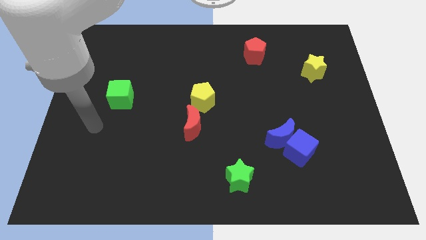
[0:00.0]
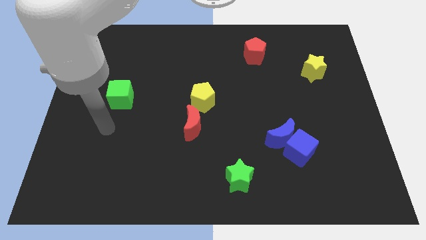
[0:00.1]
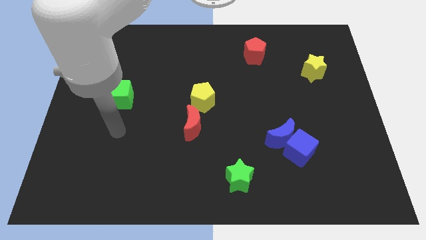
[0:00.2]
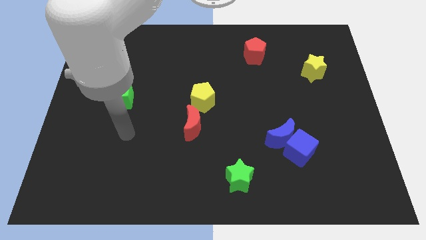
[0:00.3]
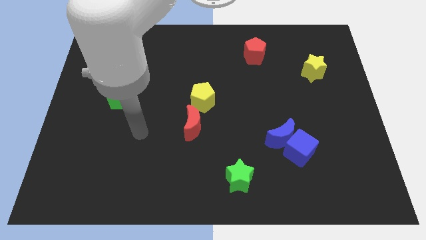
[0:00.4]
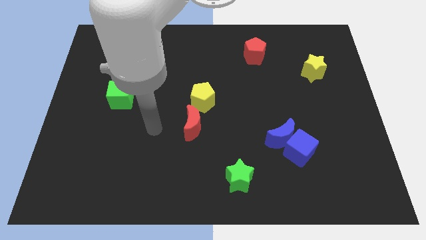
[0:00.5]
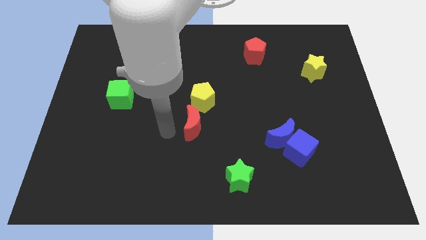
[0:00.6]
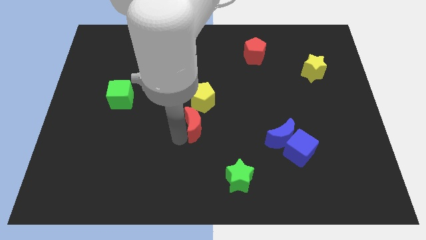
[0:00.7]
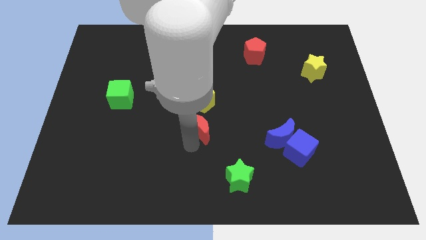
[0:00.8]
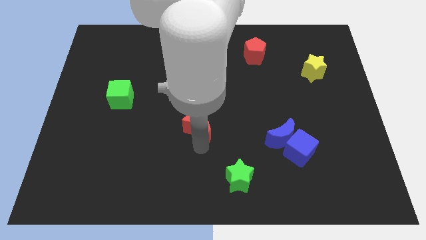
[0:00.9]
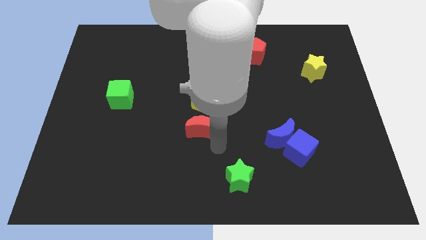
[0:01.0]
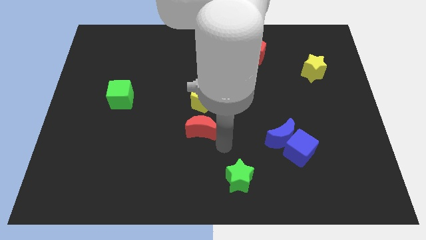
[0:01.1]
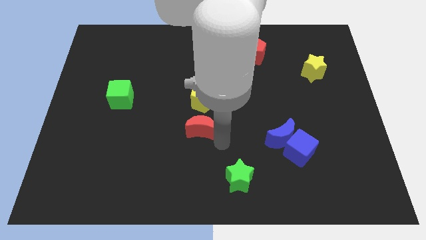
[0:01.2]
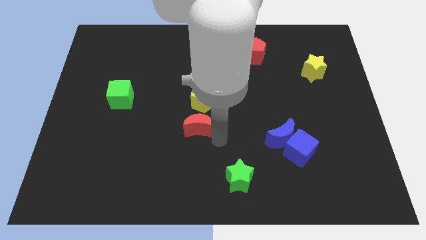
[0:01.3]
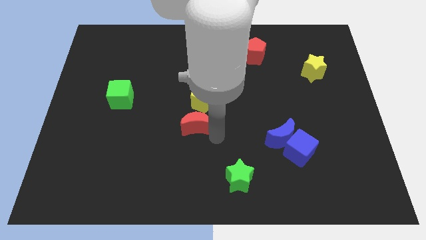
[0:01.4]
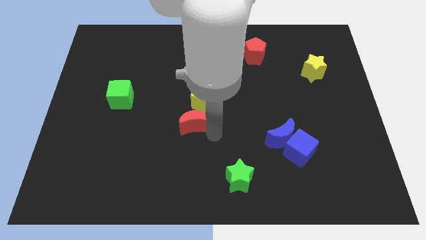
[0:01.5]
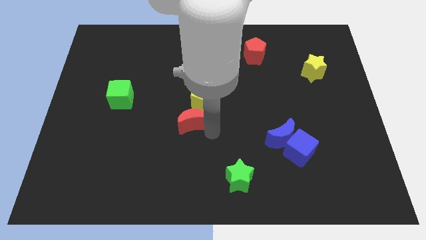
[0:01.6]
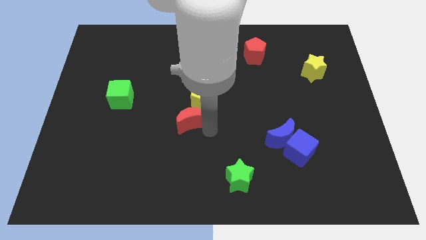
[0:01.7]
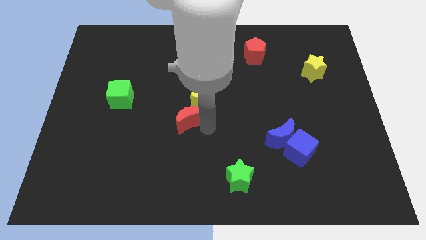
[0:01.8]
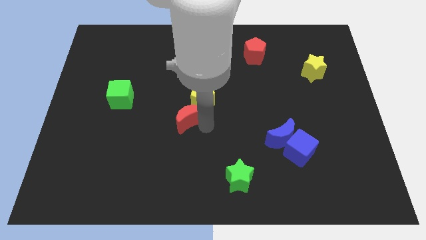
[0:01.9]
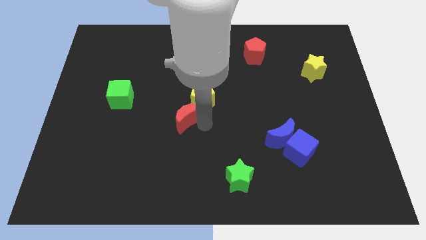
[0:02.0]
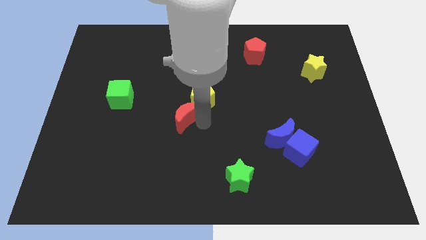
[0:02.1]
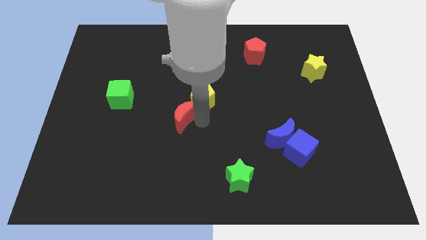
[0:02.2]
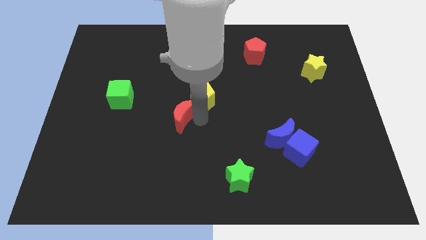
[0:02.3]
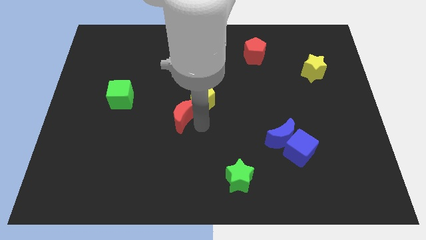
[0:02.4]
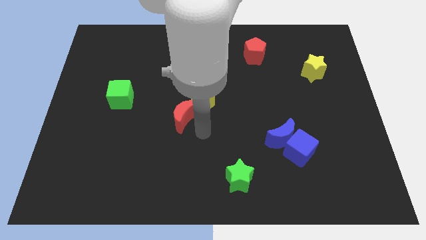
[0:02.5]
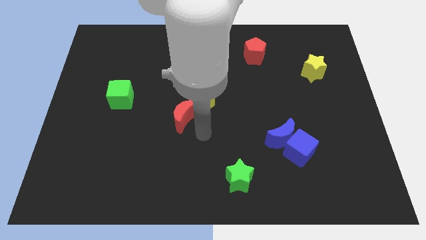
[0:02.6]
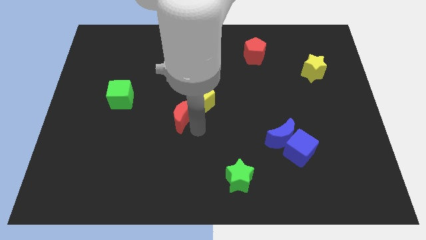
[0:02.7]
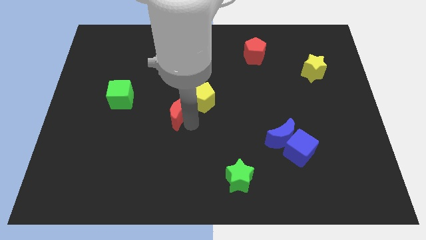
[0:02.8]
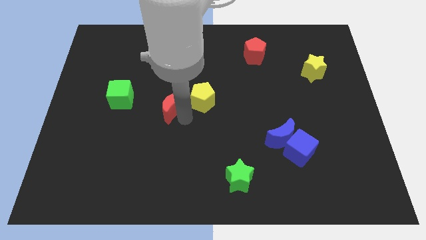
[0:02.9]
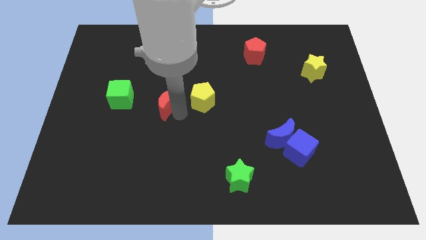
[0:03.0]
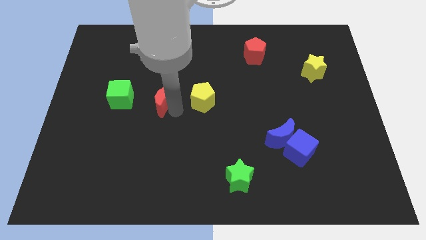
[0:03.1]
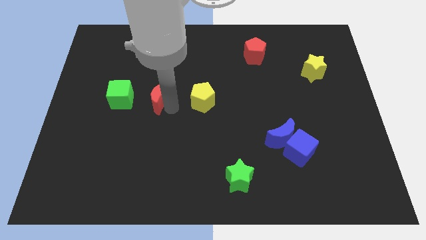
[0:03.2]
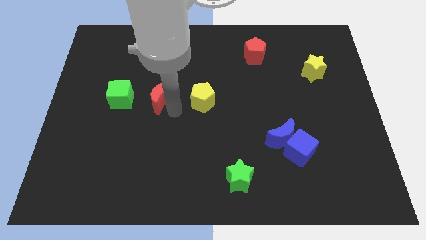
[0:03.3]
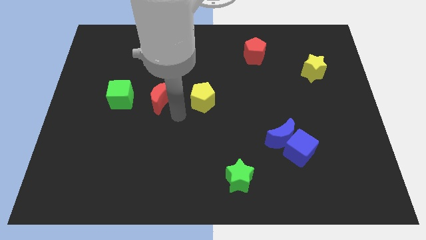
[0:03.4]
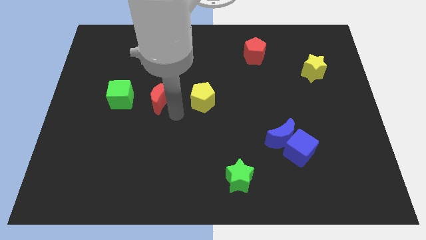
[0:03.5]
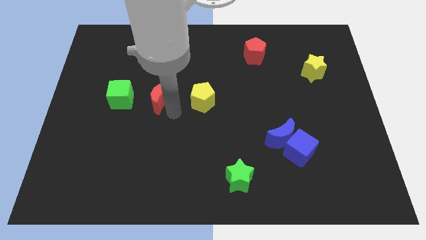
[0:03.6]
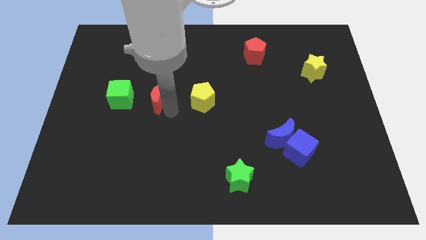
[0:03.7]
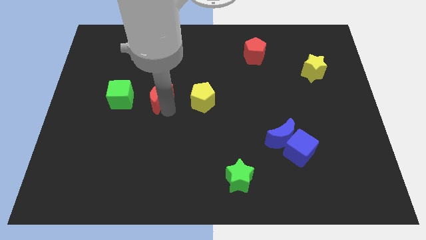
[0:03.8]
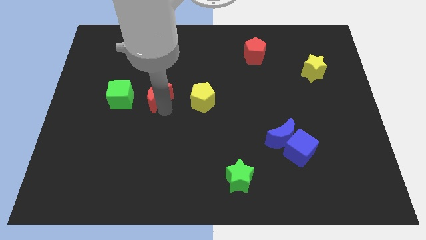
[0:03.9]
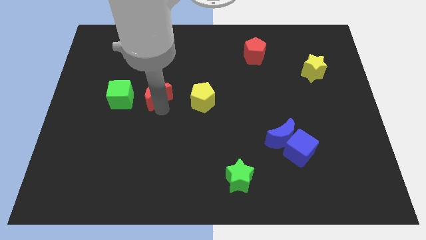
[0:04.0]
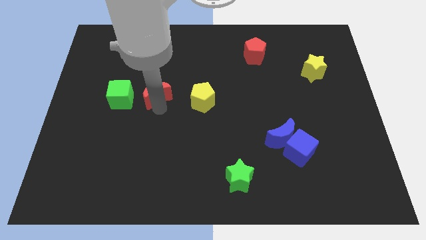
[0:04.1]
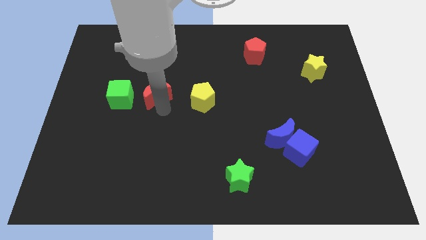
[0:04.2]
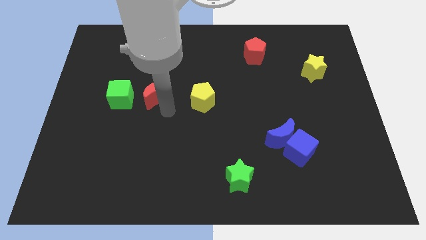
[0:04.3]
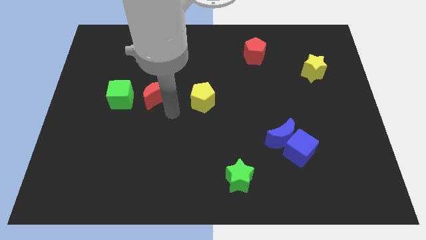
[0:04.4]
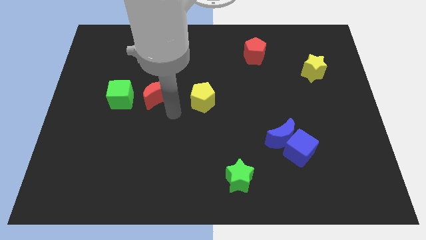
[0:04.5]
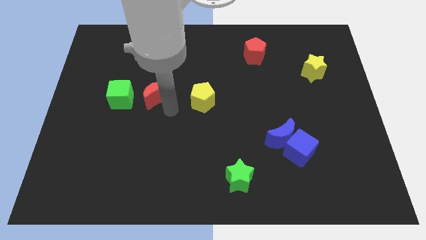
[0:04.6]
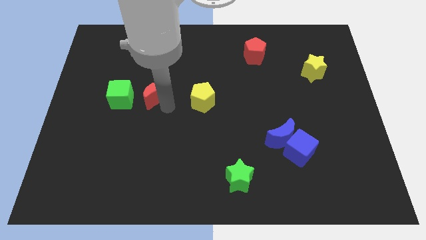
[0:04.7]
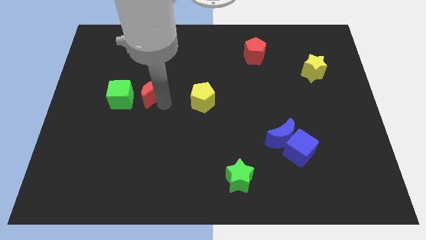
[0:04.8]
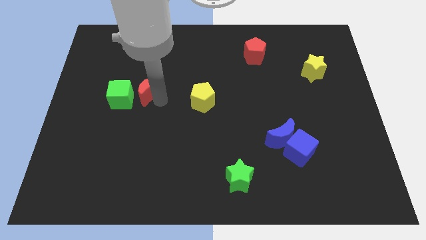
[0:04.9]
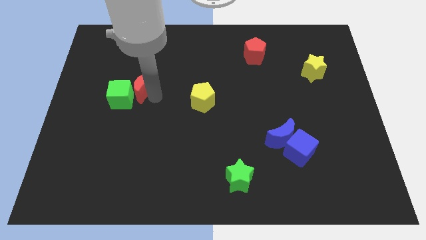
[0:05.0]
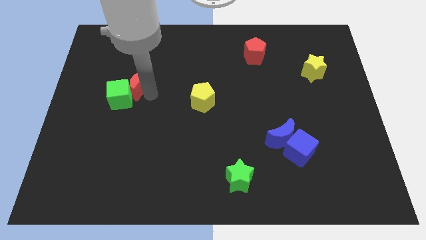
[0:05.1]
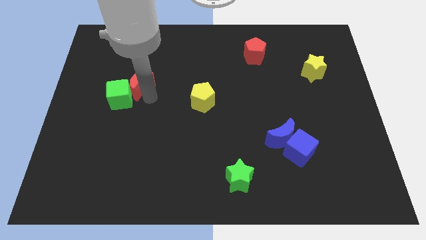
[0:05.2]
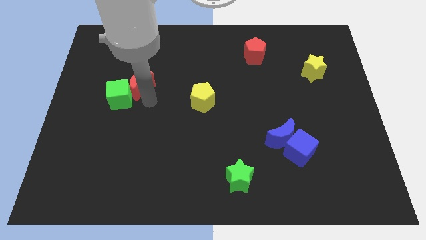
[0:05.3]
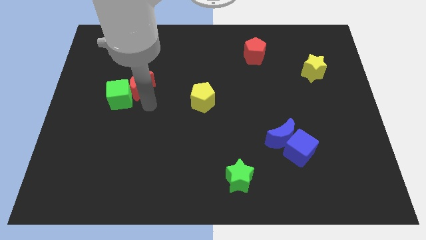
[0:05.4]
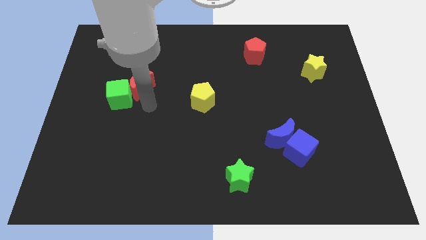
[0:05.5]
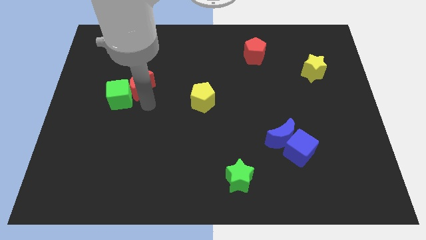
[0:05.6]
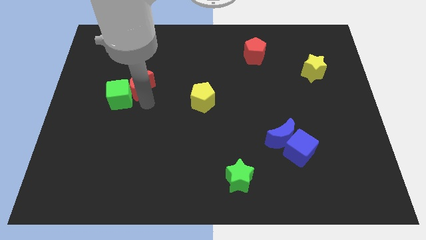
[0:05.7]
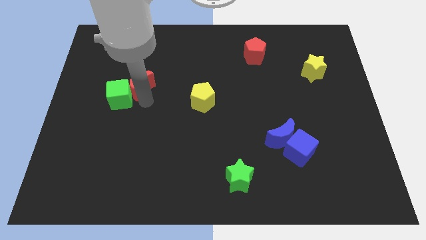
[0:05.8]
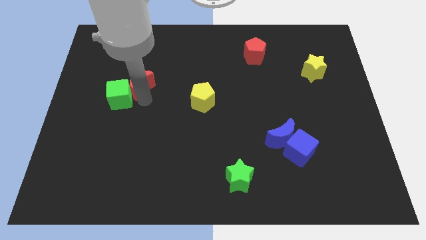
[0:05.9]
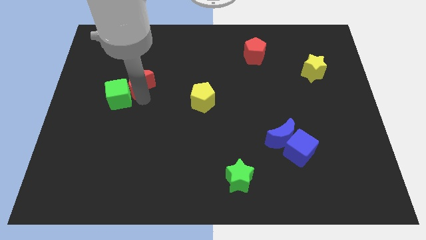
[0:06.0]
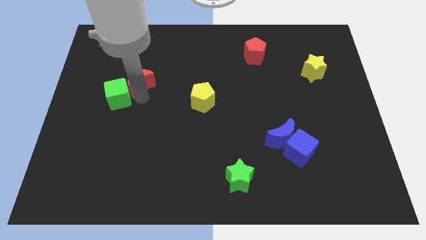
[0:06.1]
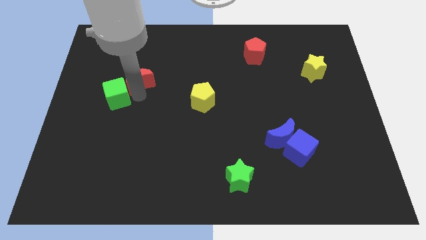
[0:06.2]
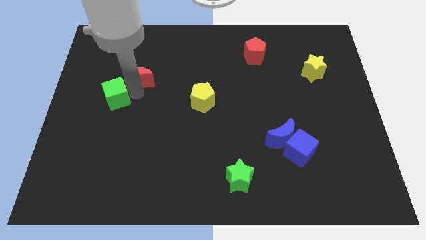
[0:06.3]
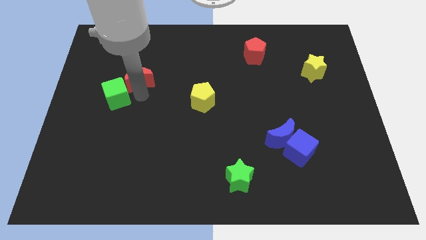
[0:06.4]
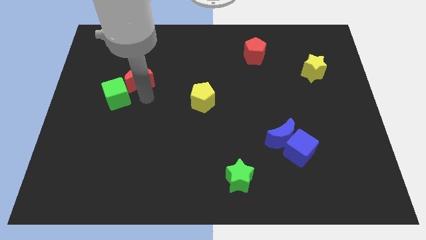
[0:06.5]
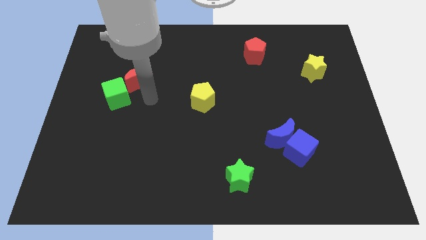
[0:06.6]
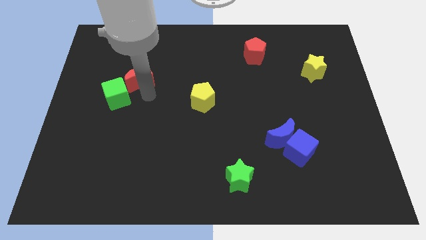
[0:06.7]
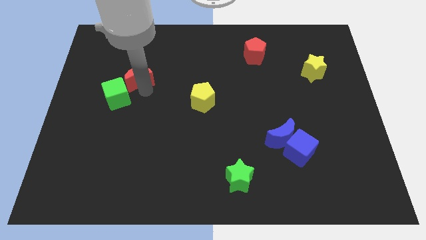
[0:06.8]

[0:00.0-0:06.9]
push the red moon upwards and then left

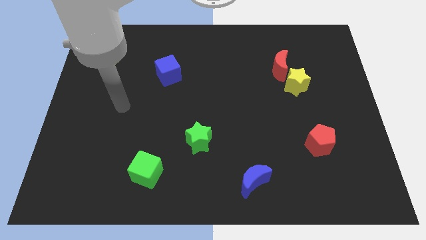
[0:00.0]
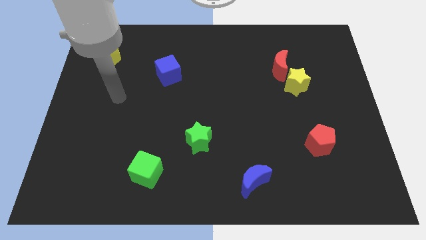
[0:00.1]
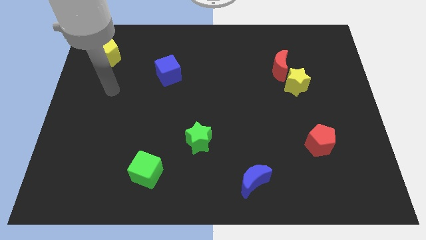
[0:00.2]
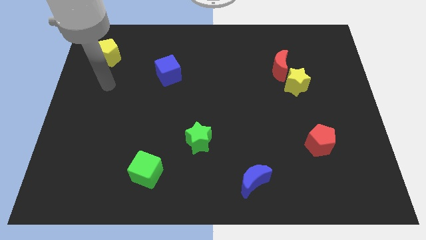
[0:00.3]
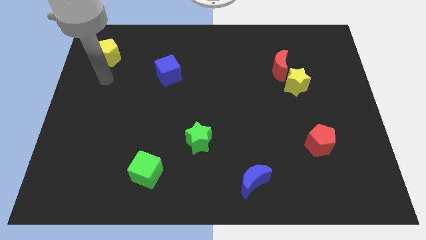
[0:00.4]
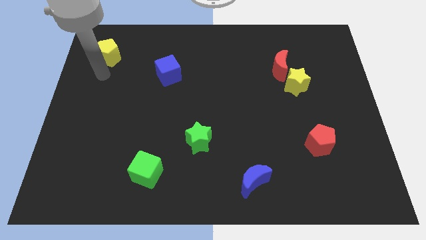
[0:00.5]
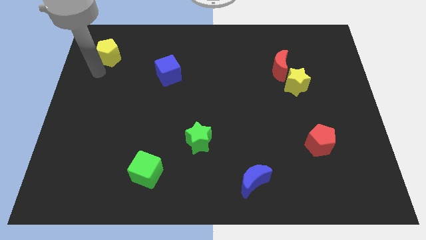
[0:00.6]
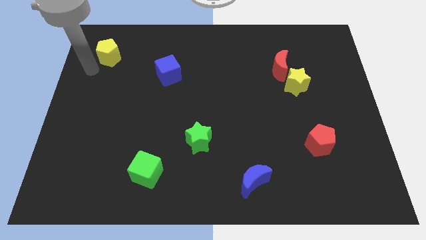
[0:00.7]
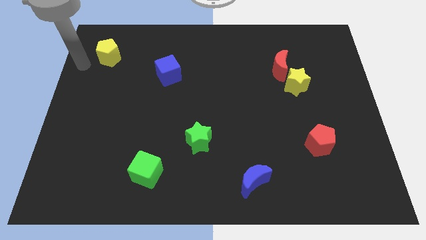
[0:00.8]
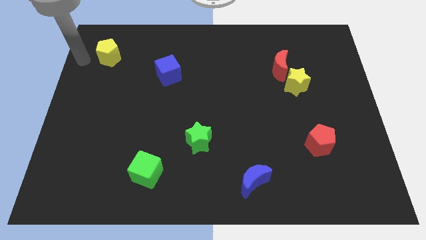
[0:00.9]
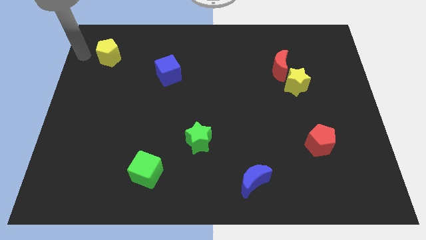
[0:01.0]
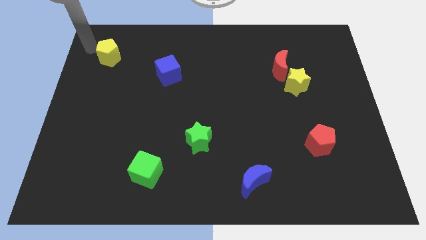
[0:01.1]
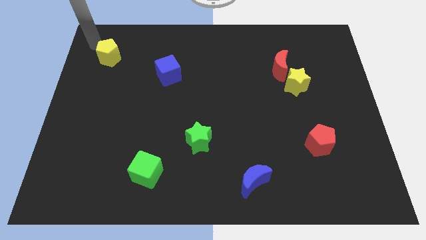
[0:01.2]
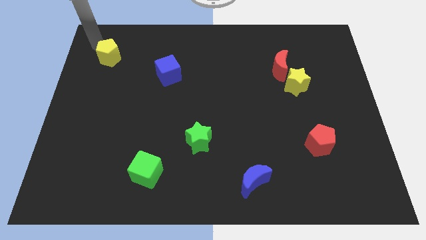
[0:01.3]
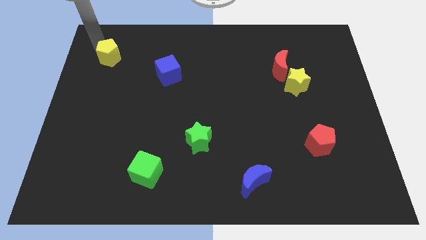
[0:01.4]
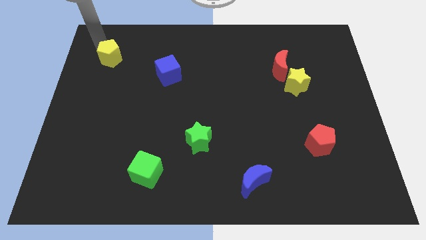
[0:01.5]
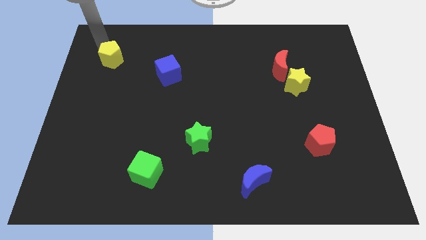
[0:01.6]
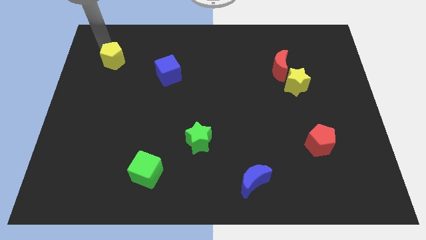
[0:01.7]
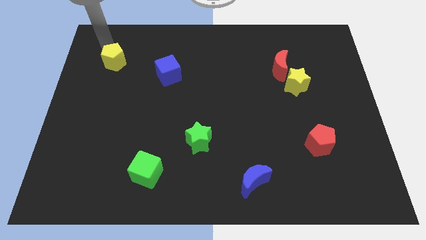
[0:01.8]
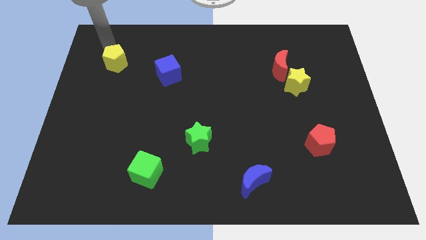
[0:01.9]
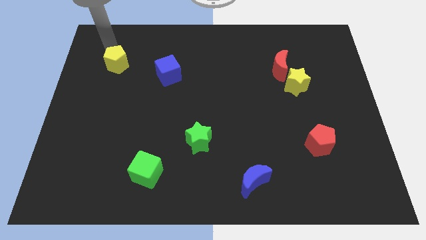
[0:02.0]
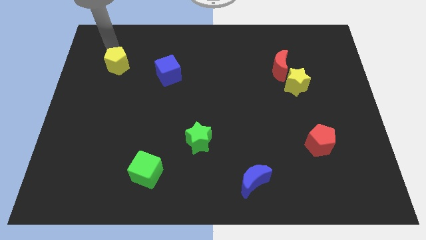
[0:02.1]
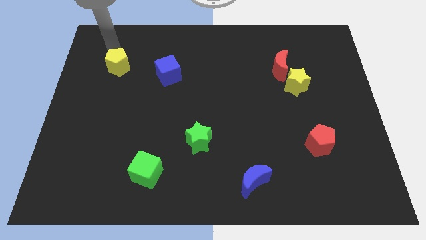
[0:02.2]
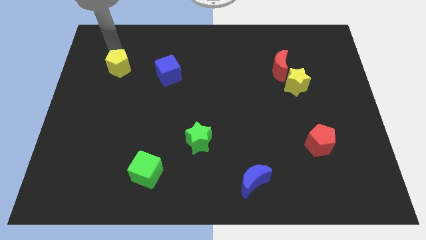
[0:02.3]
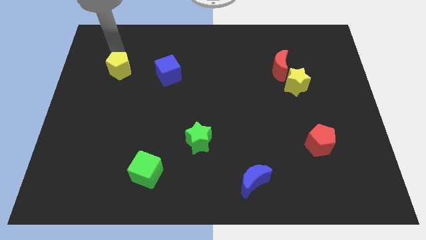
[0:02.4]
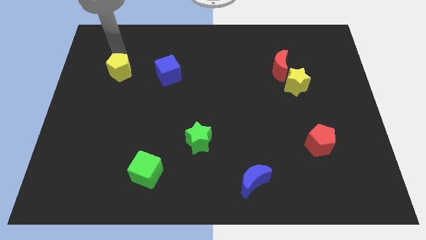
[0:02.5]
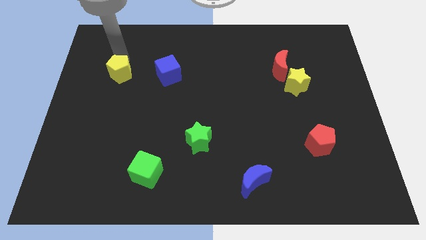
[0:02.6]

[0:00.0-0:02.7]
slightly slide the yellow pentagon downwards and to the right diagonally
